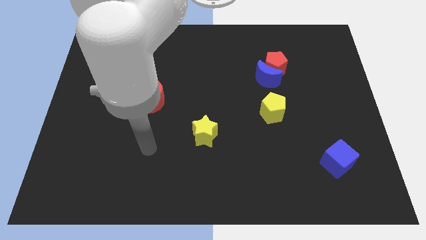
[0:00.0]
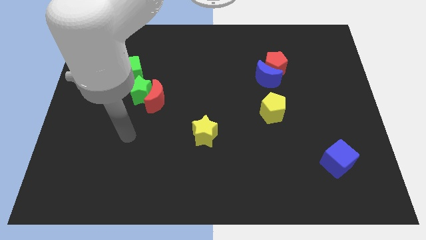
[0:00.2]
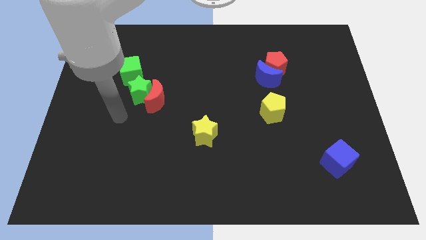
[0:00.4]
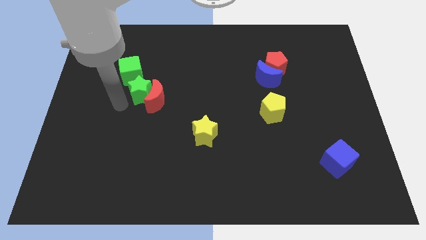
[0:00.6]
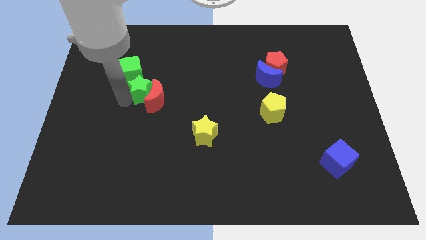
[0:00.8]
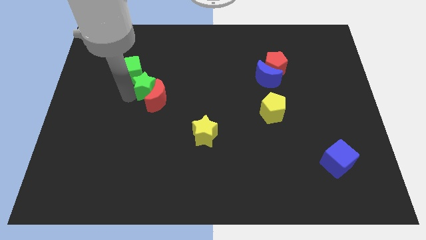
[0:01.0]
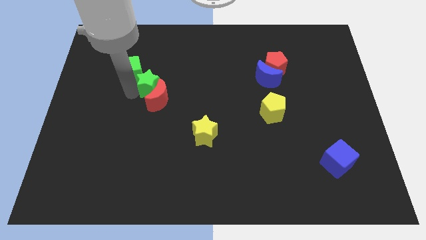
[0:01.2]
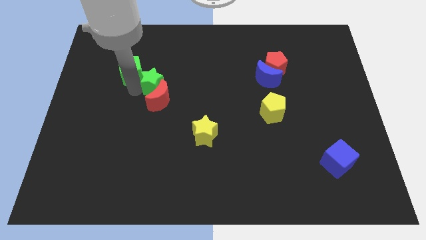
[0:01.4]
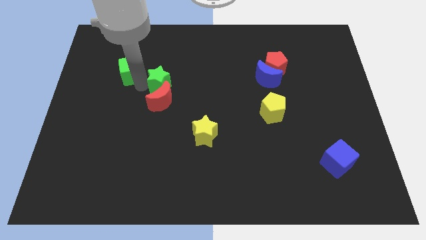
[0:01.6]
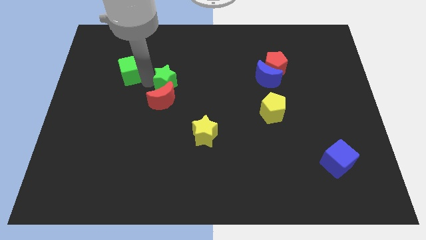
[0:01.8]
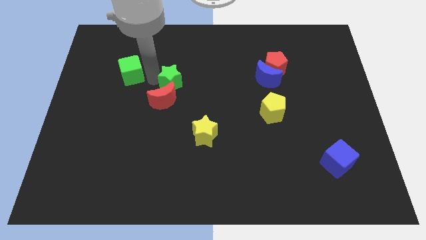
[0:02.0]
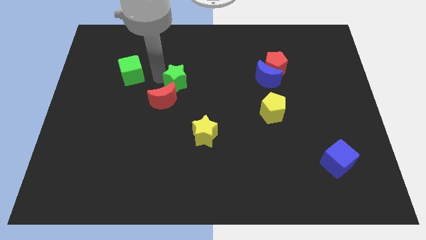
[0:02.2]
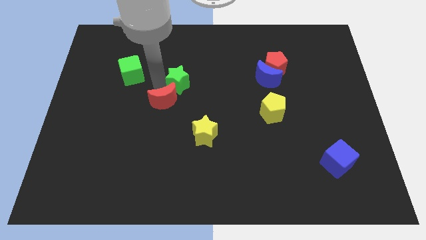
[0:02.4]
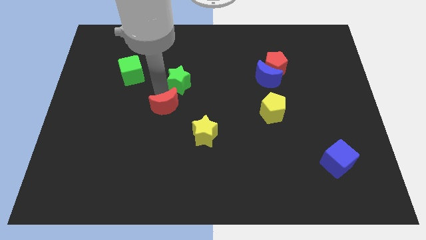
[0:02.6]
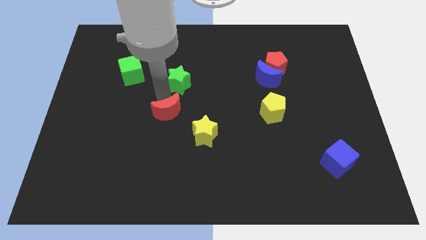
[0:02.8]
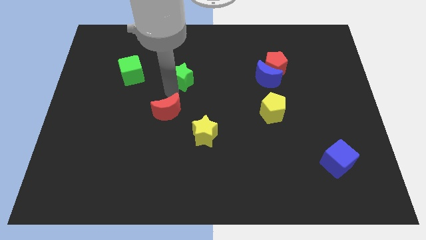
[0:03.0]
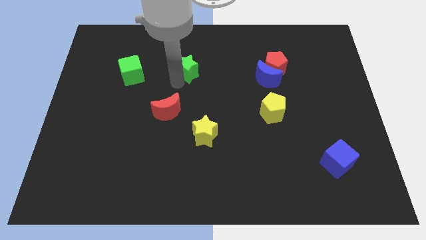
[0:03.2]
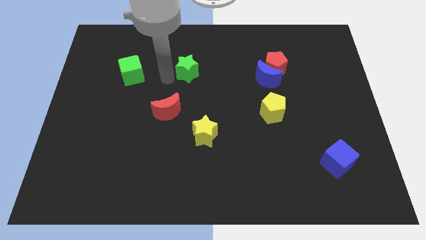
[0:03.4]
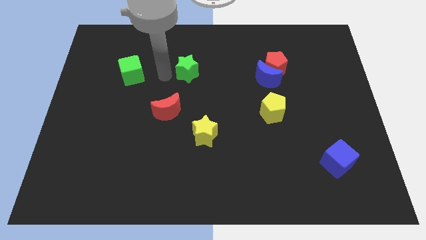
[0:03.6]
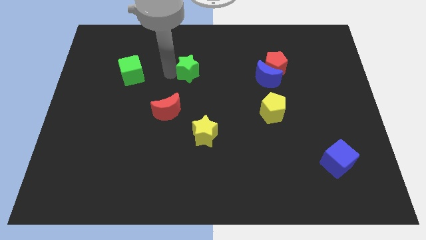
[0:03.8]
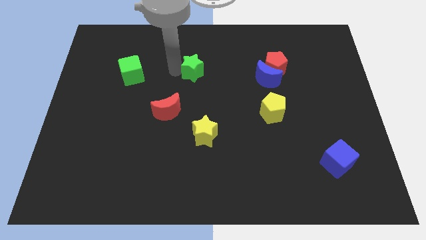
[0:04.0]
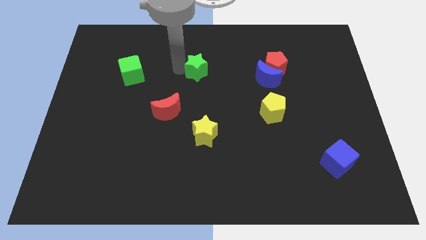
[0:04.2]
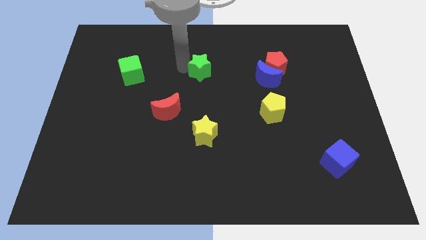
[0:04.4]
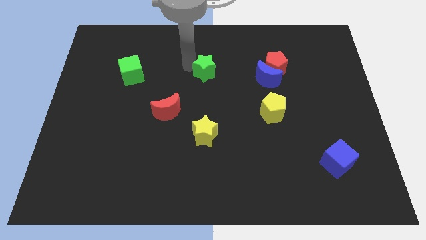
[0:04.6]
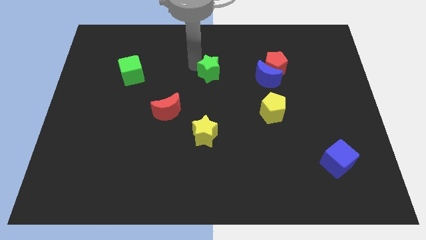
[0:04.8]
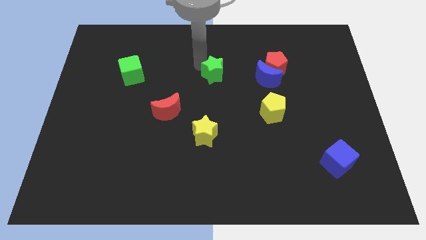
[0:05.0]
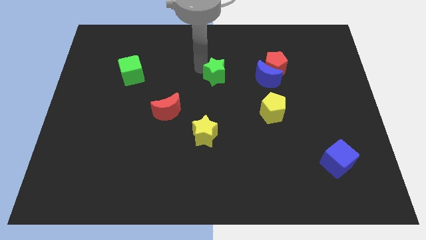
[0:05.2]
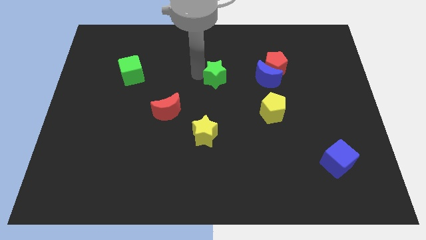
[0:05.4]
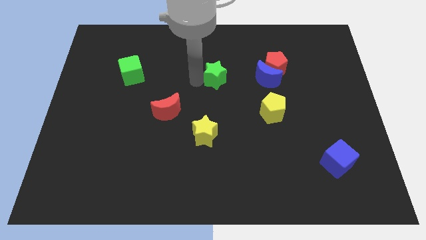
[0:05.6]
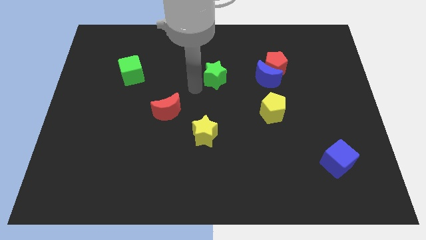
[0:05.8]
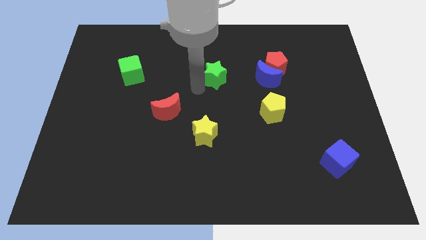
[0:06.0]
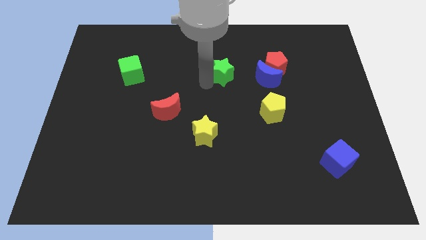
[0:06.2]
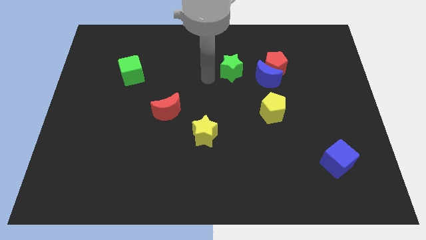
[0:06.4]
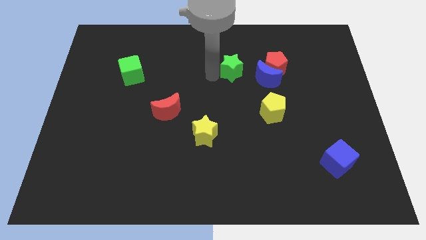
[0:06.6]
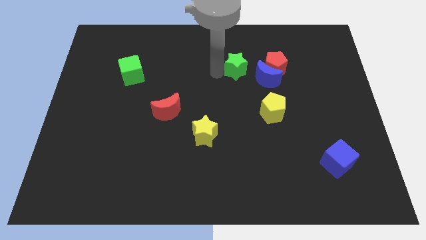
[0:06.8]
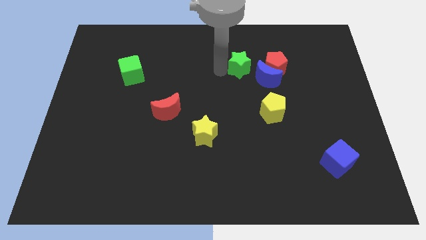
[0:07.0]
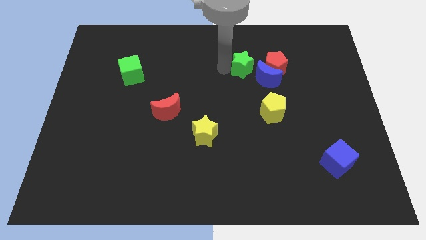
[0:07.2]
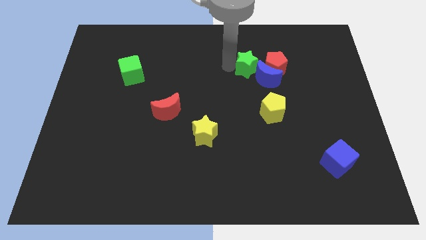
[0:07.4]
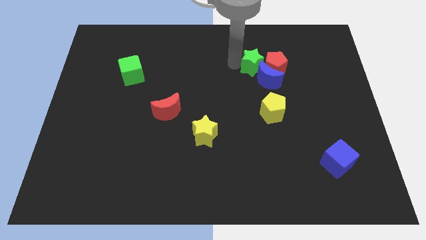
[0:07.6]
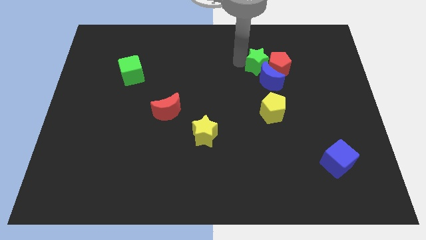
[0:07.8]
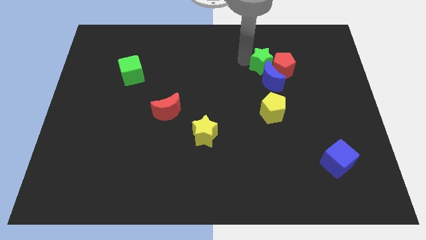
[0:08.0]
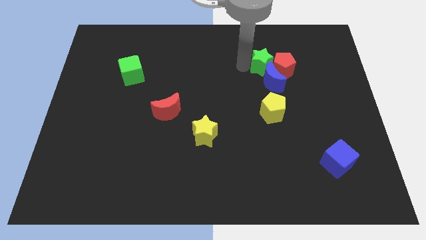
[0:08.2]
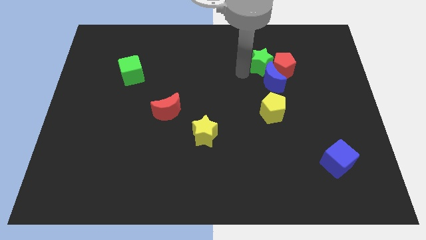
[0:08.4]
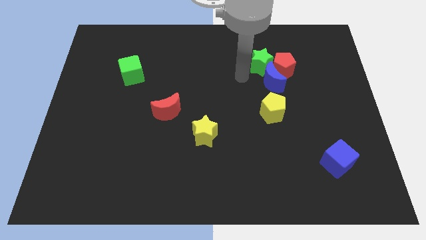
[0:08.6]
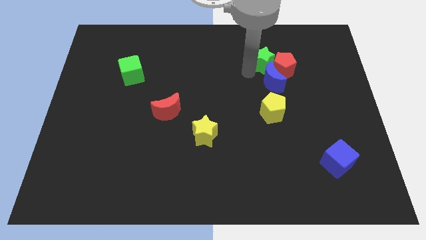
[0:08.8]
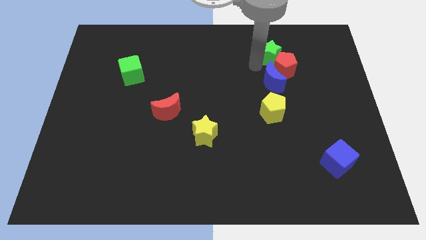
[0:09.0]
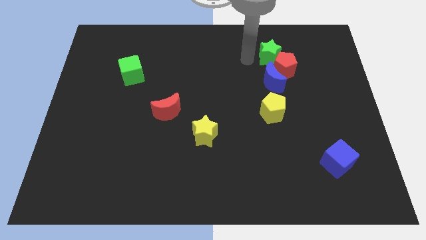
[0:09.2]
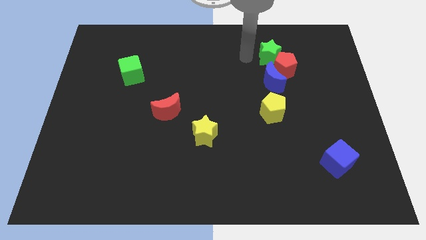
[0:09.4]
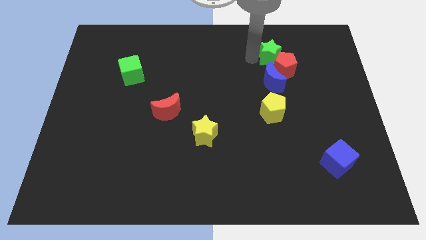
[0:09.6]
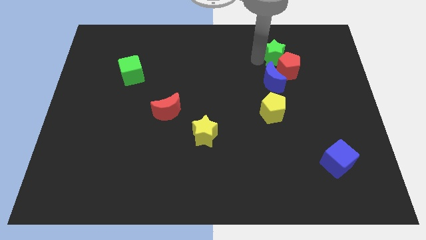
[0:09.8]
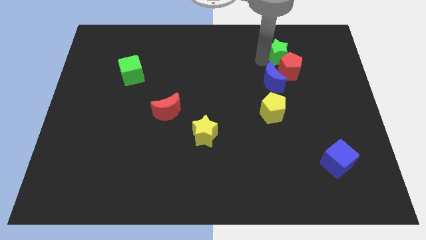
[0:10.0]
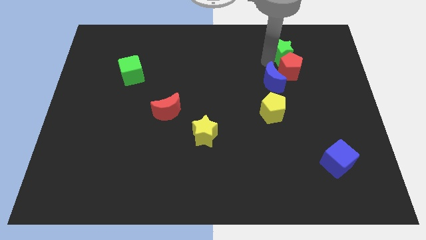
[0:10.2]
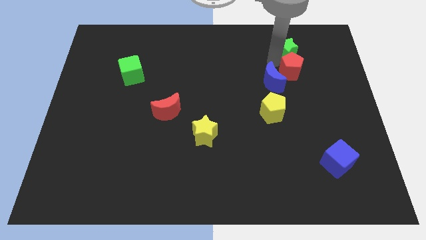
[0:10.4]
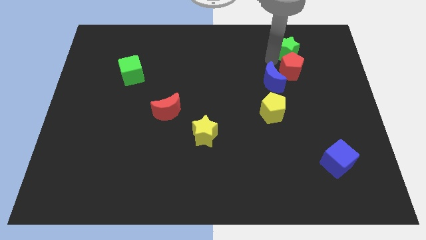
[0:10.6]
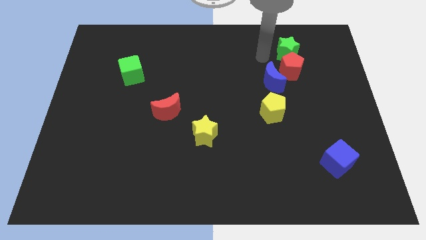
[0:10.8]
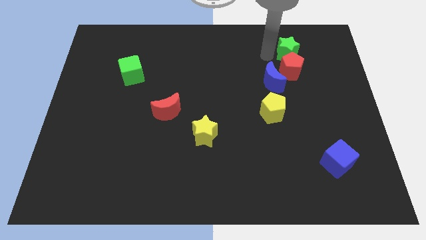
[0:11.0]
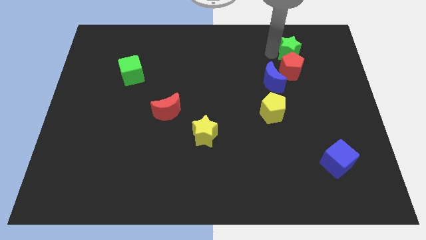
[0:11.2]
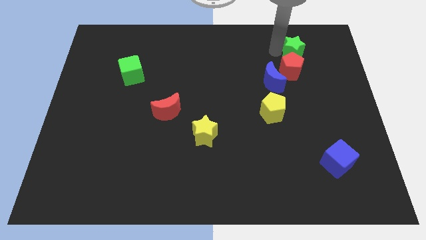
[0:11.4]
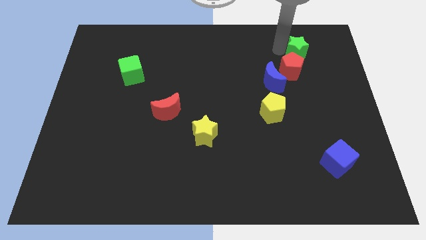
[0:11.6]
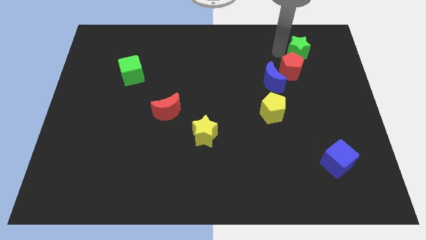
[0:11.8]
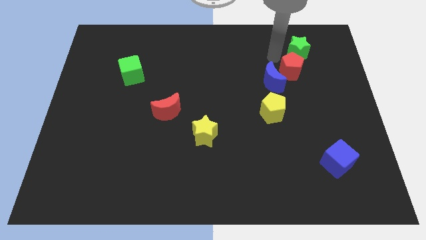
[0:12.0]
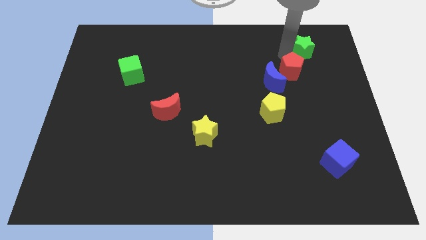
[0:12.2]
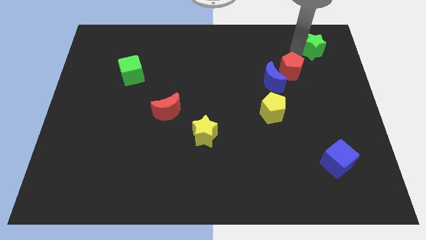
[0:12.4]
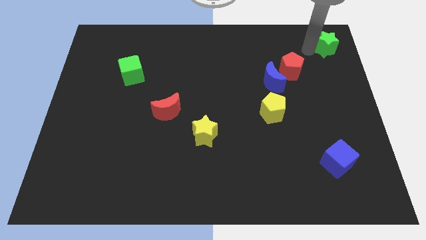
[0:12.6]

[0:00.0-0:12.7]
move the green star to the top right

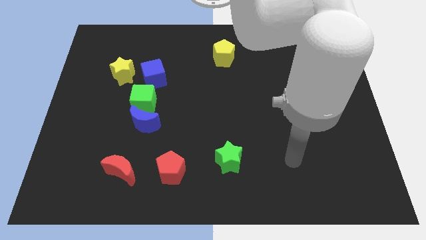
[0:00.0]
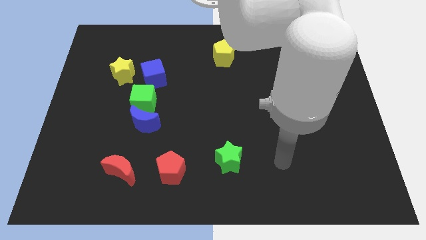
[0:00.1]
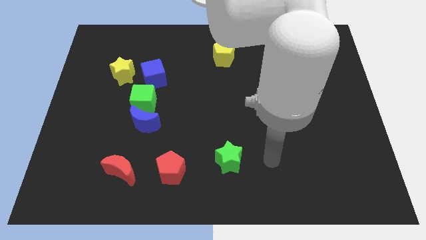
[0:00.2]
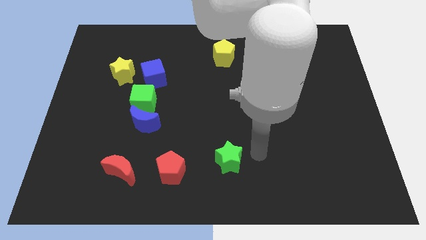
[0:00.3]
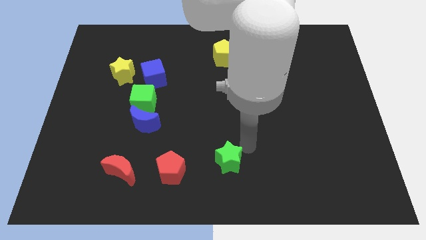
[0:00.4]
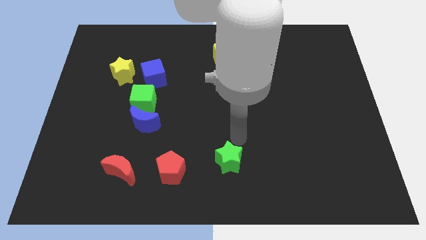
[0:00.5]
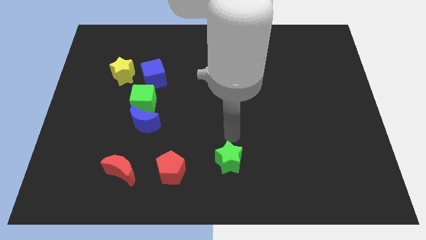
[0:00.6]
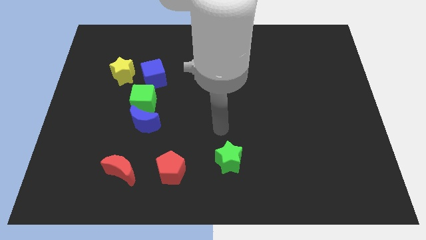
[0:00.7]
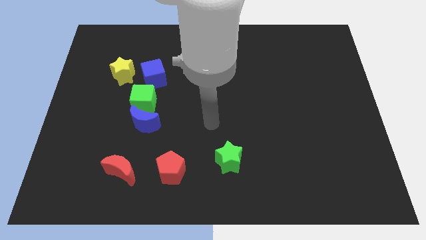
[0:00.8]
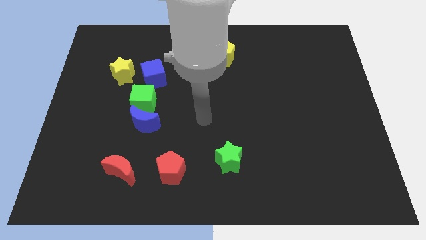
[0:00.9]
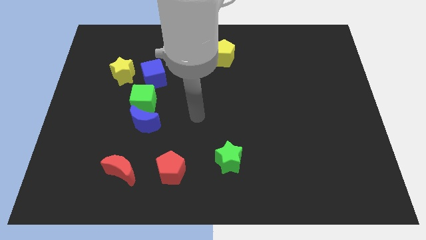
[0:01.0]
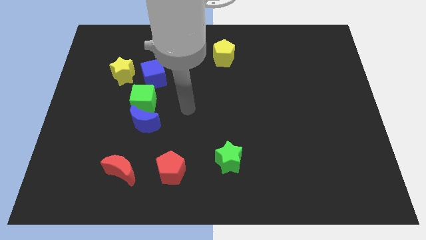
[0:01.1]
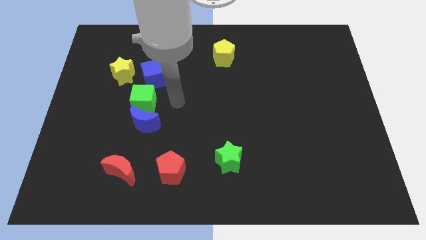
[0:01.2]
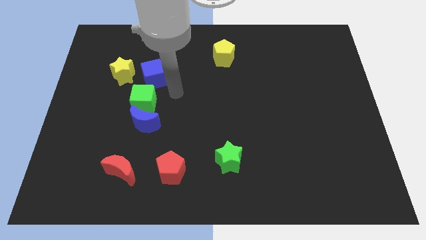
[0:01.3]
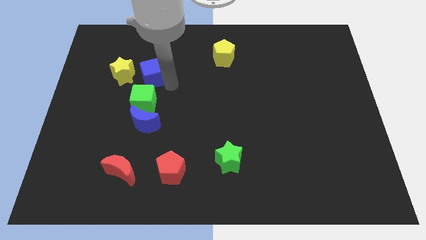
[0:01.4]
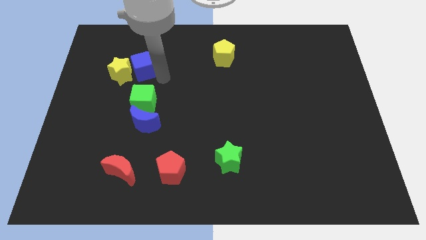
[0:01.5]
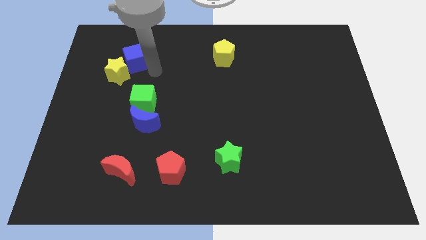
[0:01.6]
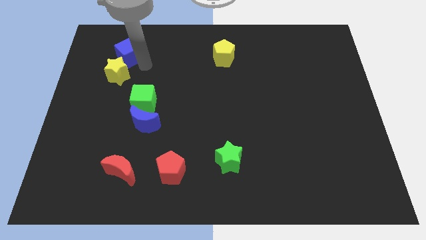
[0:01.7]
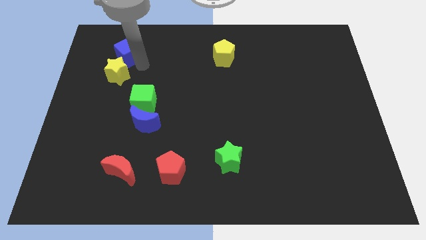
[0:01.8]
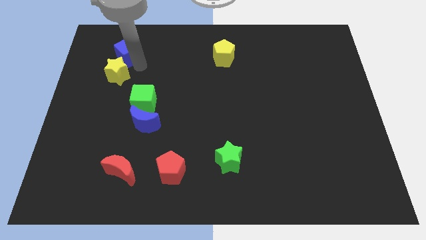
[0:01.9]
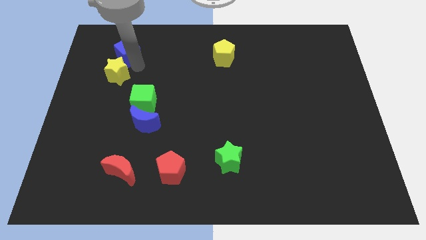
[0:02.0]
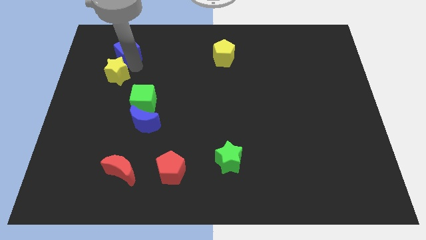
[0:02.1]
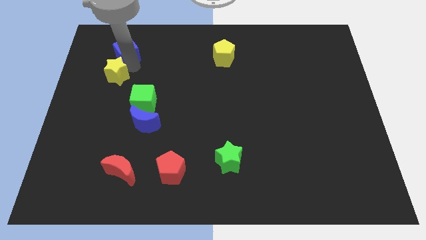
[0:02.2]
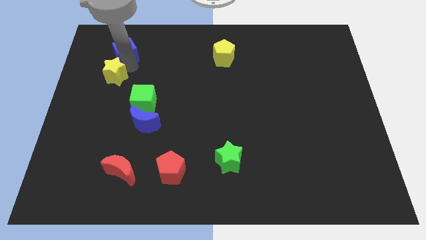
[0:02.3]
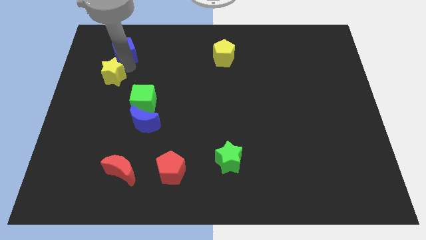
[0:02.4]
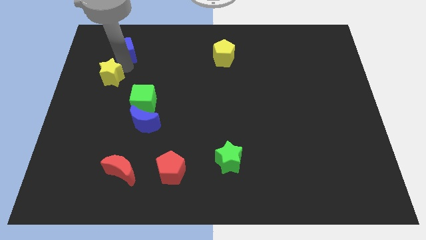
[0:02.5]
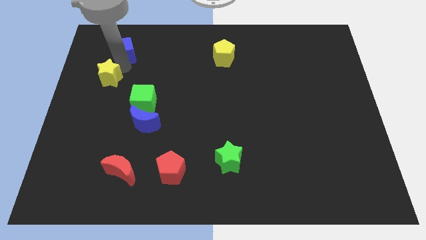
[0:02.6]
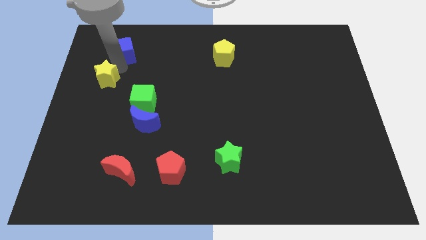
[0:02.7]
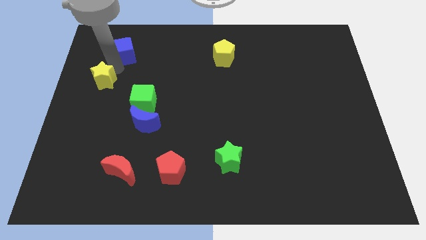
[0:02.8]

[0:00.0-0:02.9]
push the yellow star to the center left
